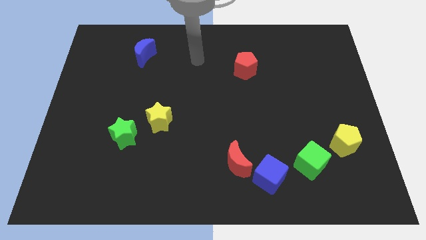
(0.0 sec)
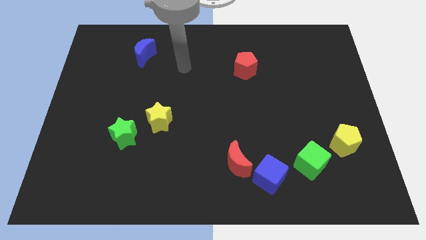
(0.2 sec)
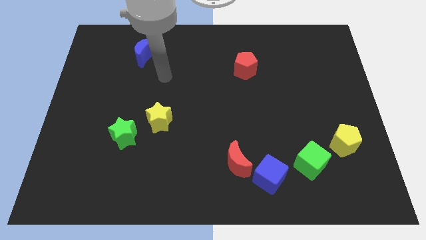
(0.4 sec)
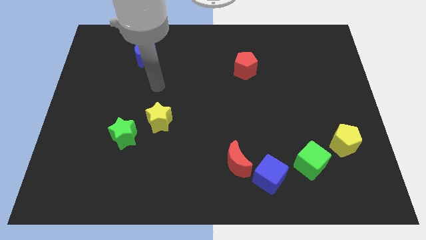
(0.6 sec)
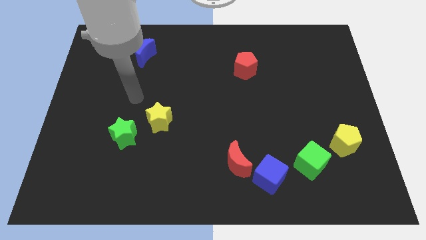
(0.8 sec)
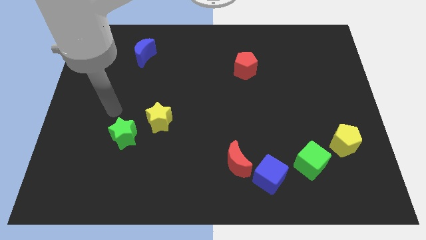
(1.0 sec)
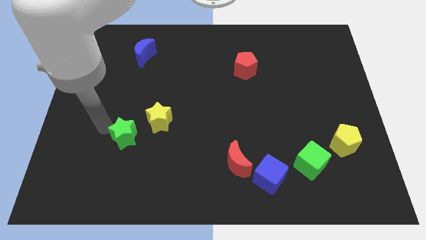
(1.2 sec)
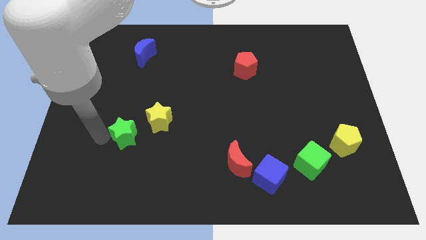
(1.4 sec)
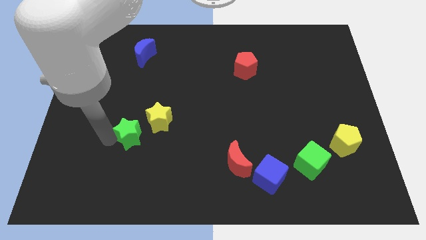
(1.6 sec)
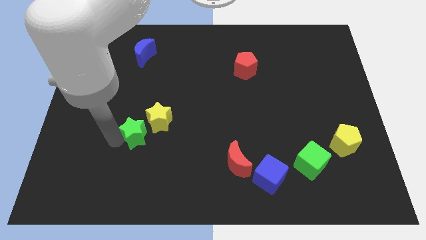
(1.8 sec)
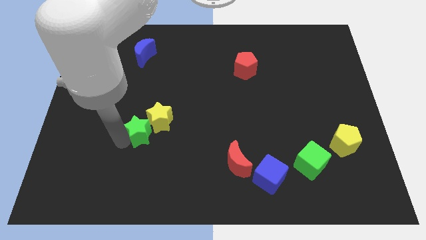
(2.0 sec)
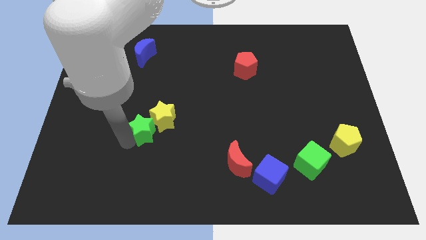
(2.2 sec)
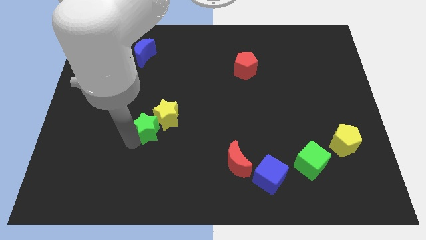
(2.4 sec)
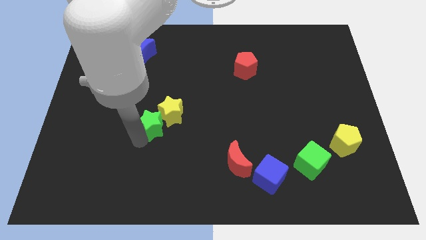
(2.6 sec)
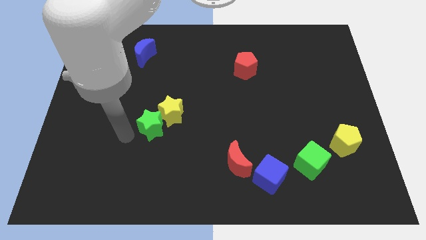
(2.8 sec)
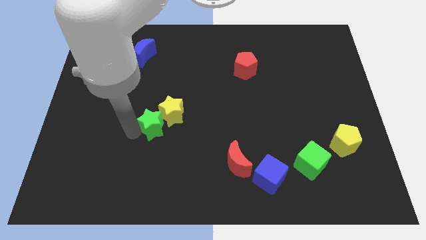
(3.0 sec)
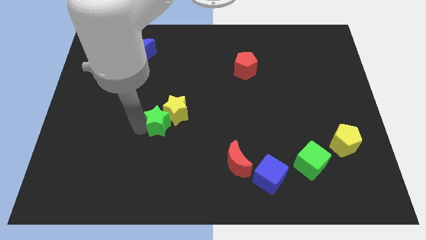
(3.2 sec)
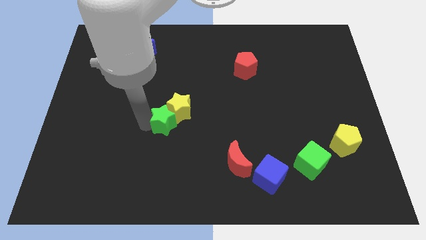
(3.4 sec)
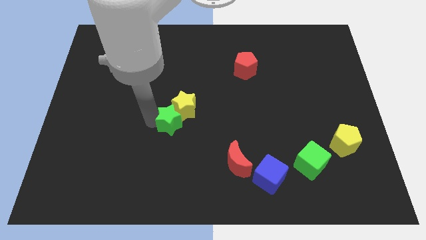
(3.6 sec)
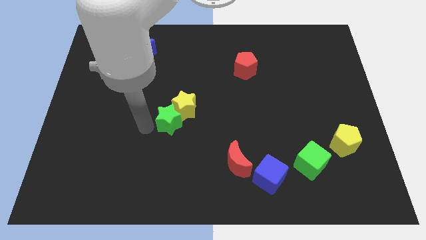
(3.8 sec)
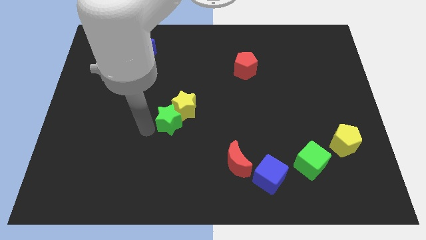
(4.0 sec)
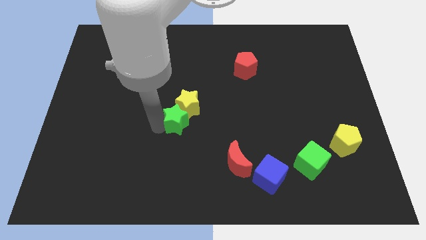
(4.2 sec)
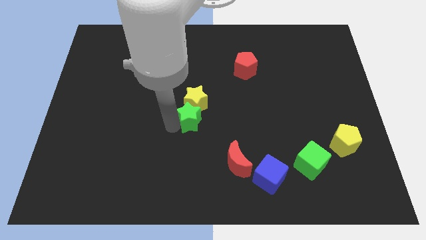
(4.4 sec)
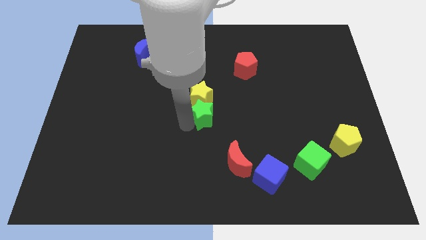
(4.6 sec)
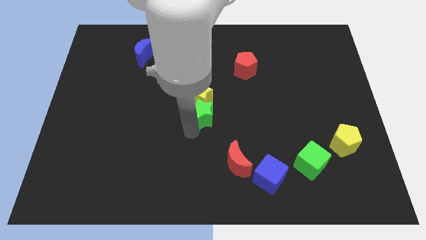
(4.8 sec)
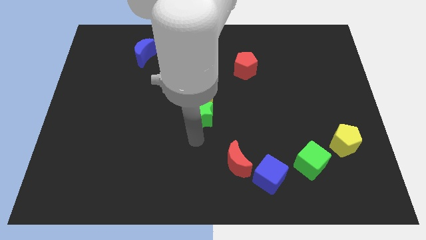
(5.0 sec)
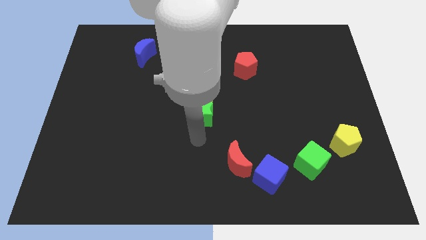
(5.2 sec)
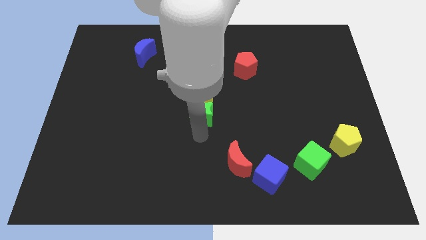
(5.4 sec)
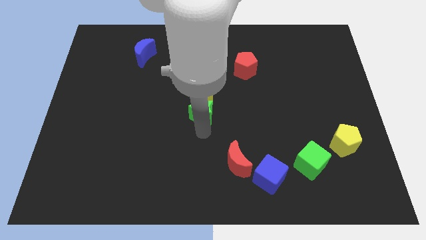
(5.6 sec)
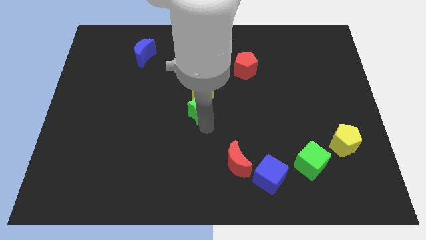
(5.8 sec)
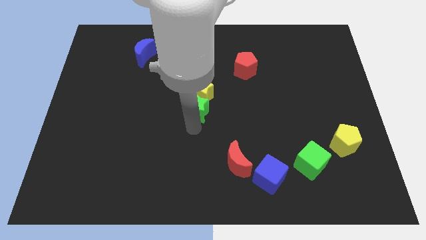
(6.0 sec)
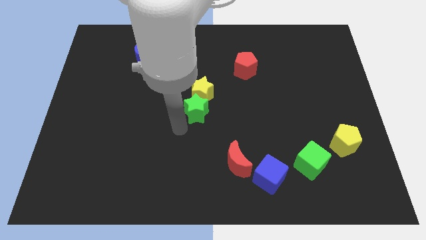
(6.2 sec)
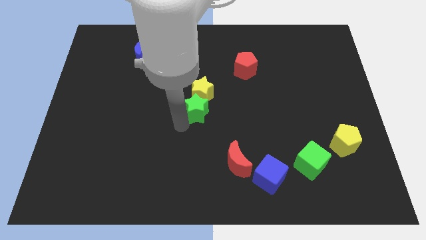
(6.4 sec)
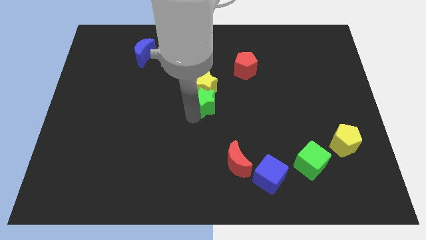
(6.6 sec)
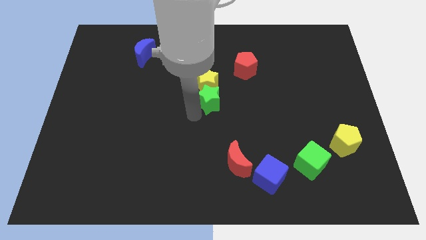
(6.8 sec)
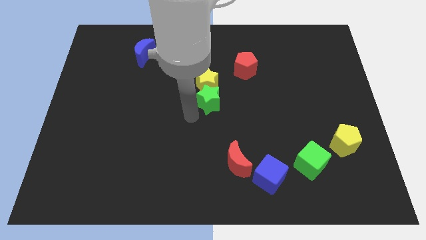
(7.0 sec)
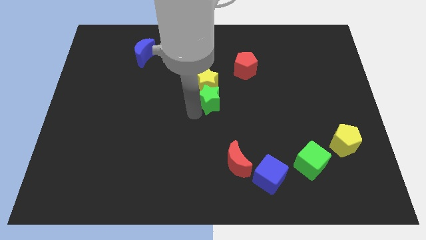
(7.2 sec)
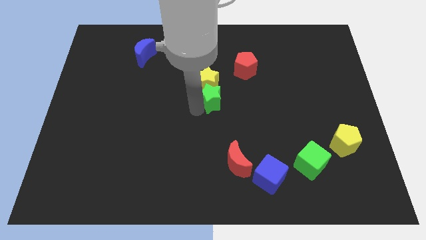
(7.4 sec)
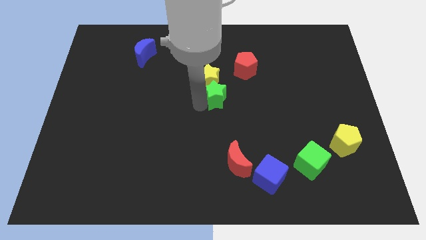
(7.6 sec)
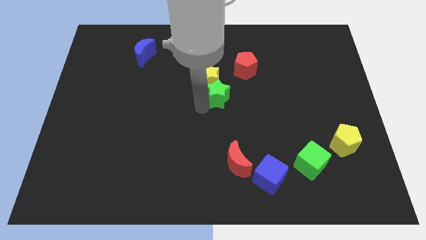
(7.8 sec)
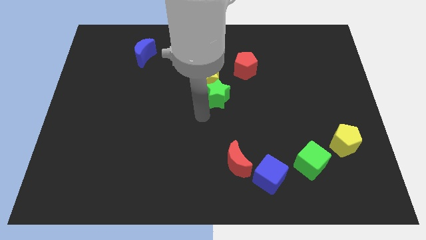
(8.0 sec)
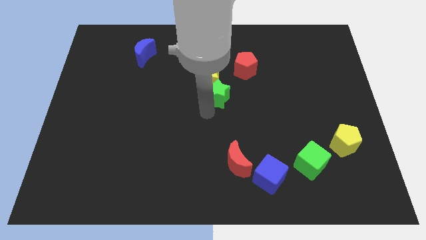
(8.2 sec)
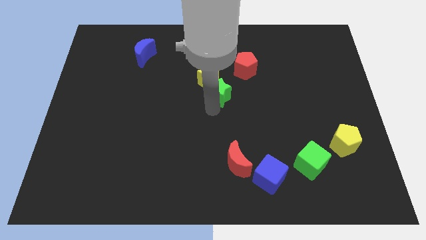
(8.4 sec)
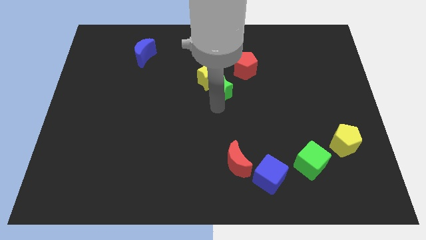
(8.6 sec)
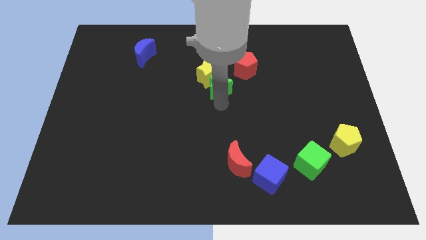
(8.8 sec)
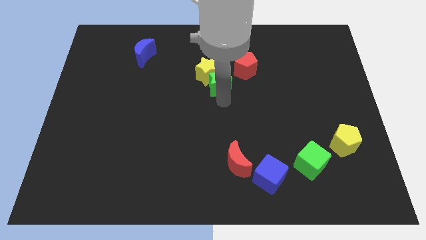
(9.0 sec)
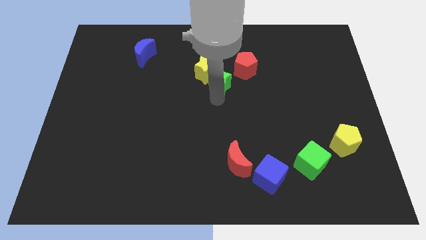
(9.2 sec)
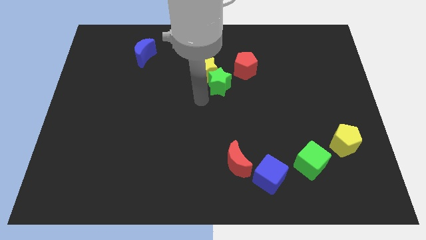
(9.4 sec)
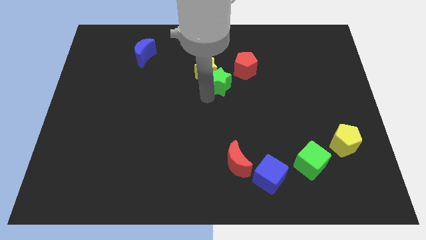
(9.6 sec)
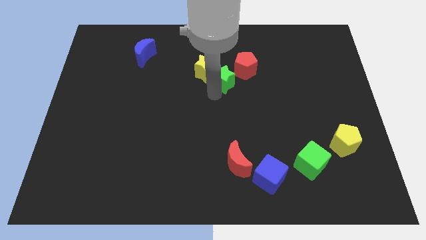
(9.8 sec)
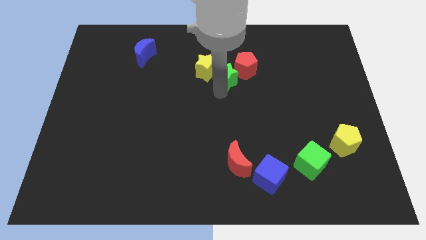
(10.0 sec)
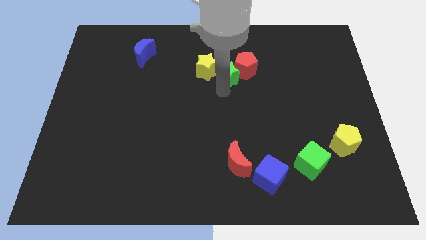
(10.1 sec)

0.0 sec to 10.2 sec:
slide the green star towards the red pentagon

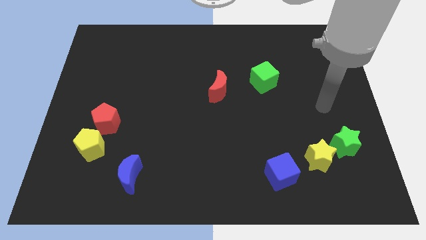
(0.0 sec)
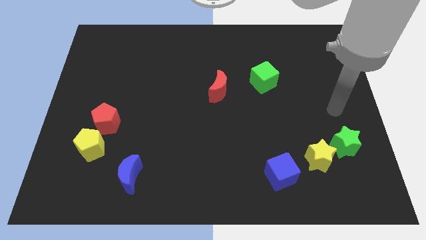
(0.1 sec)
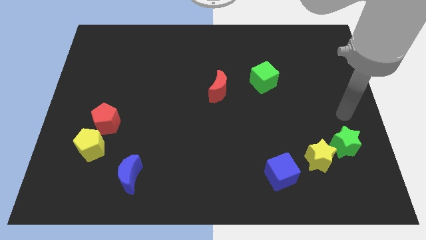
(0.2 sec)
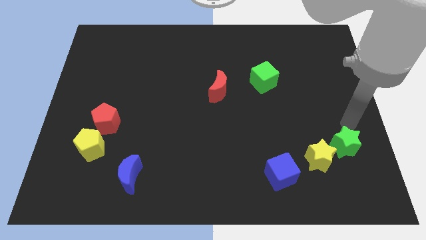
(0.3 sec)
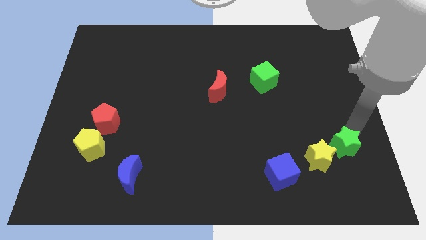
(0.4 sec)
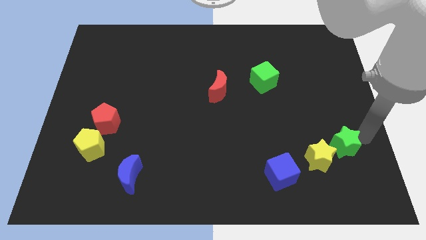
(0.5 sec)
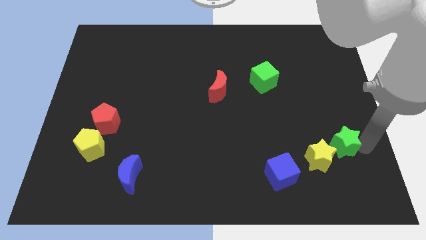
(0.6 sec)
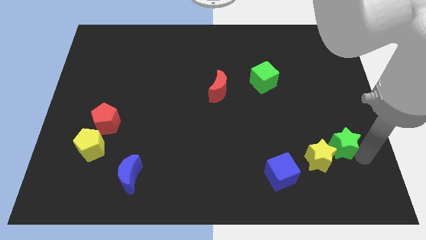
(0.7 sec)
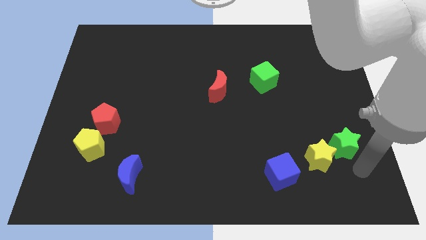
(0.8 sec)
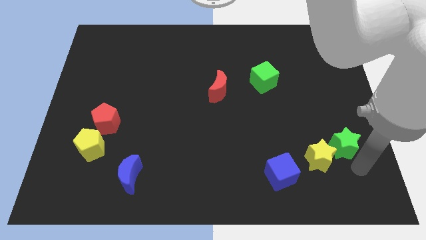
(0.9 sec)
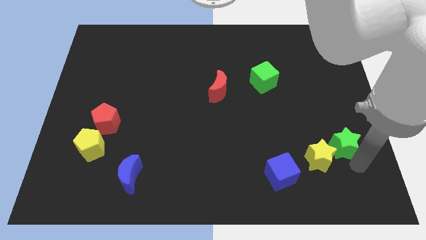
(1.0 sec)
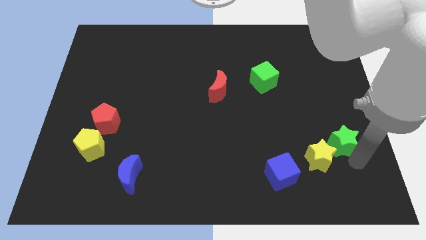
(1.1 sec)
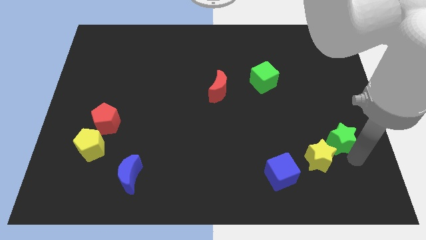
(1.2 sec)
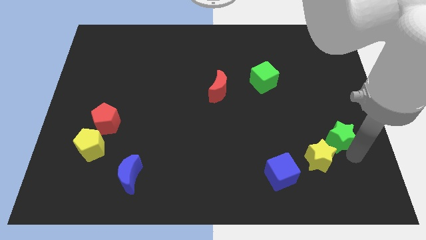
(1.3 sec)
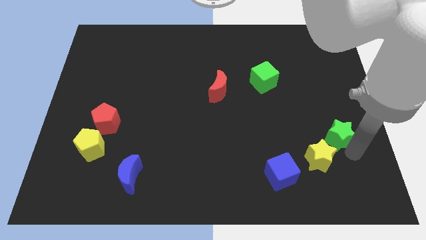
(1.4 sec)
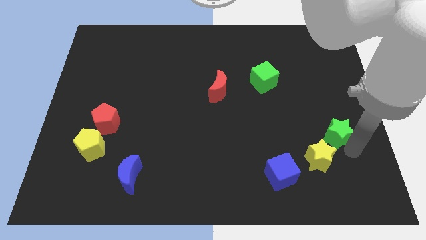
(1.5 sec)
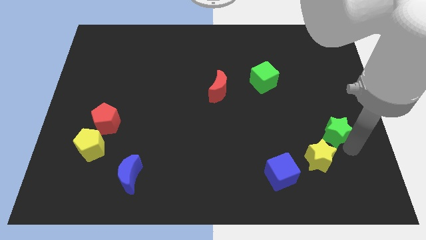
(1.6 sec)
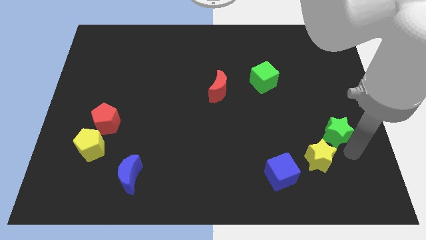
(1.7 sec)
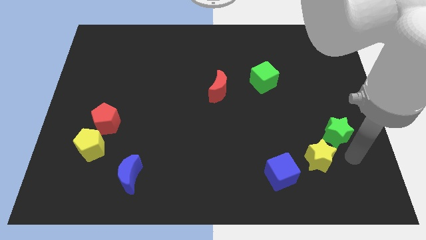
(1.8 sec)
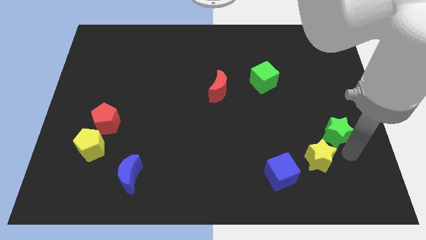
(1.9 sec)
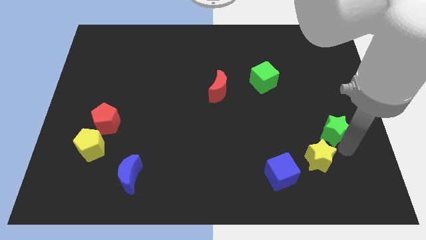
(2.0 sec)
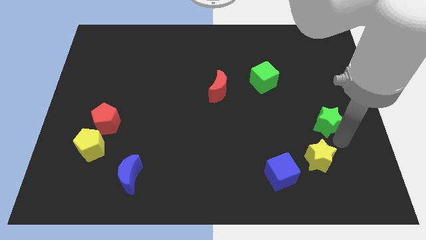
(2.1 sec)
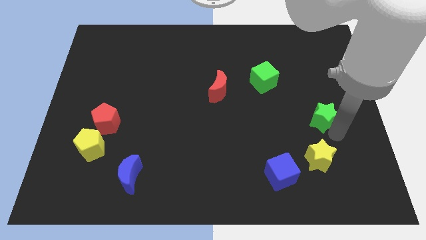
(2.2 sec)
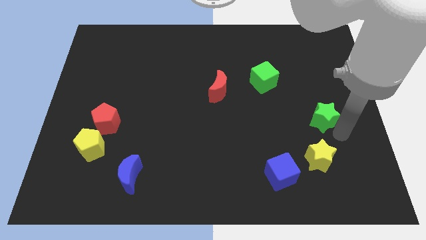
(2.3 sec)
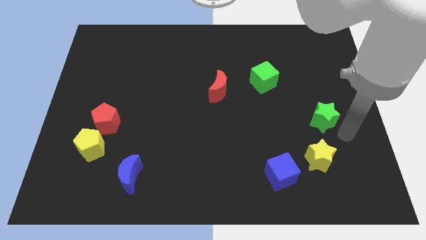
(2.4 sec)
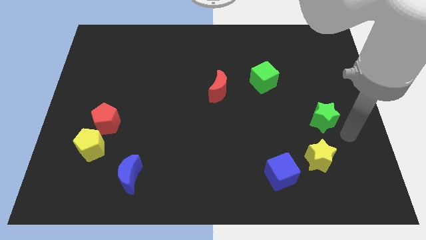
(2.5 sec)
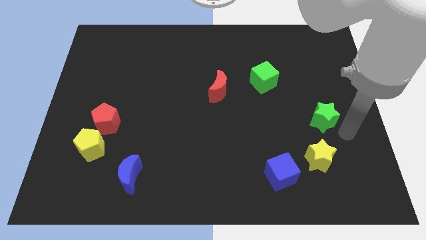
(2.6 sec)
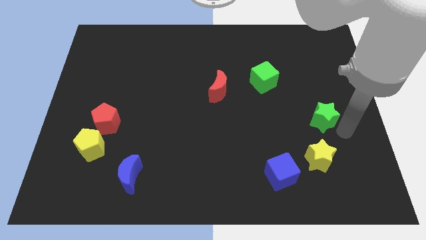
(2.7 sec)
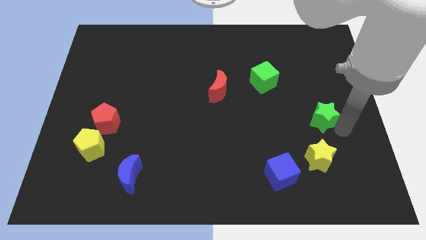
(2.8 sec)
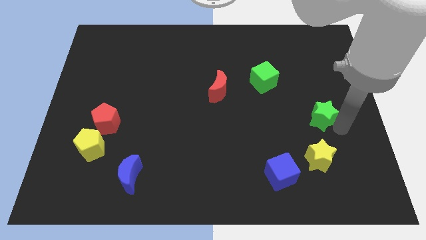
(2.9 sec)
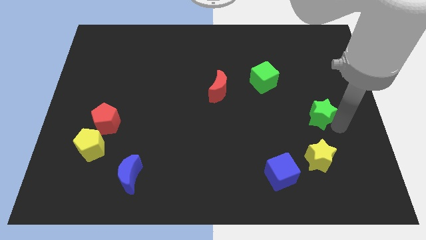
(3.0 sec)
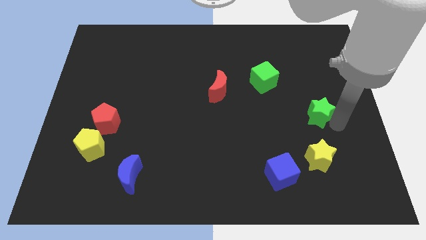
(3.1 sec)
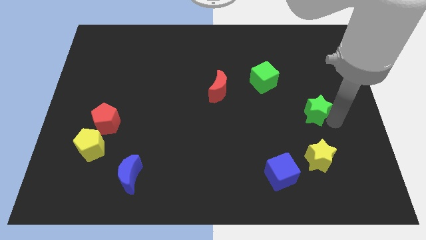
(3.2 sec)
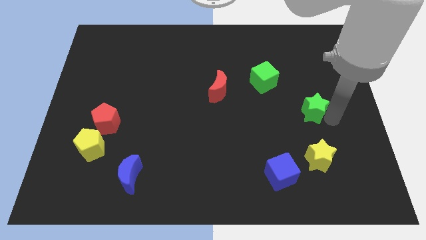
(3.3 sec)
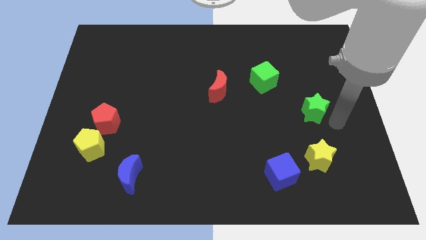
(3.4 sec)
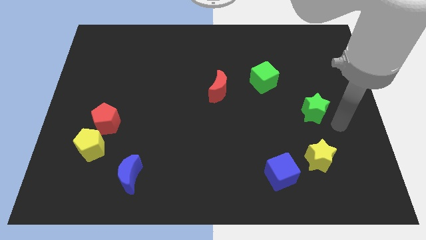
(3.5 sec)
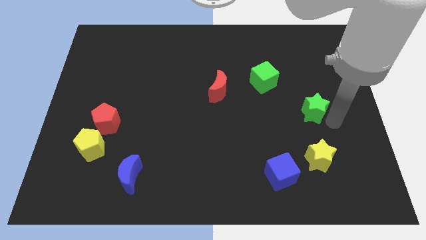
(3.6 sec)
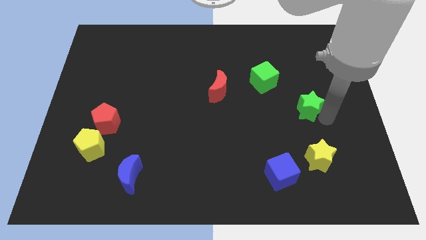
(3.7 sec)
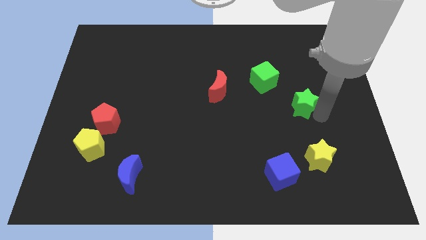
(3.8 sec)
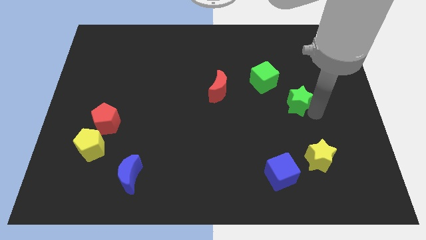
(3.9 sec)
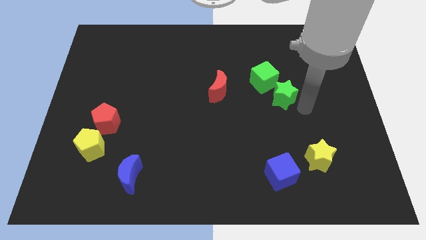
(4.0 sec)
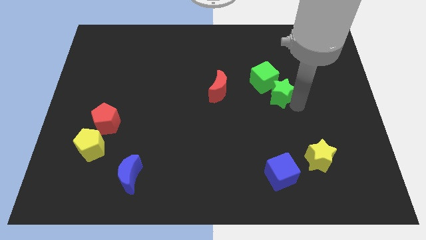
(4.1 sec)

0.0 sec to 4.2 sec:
slide the green star to the green cube
